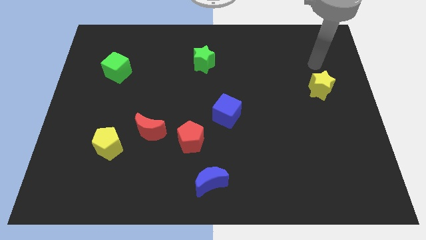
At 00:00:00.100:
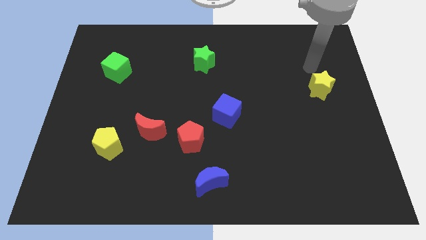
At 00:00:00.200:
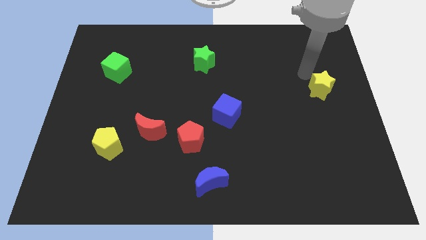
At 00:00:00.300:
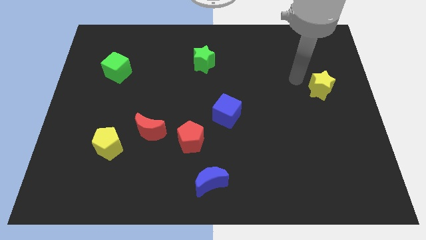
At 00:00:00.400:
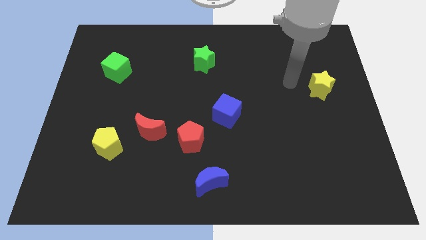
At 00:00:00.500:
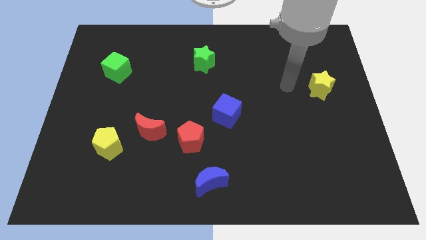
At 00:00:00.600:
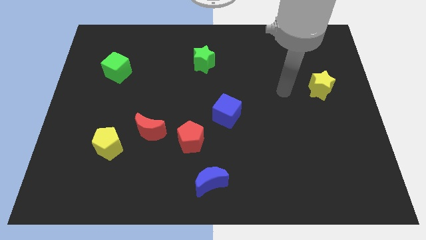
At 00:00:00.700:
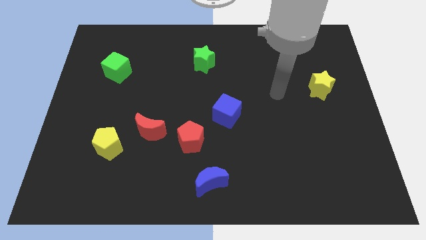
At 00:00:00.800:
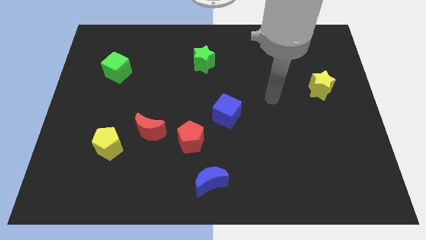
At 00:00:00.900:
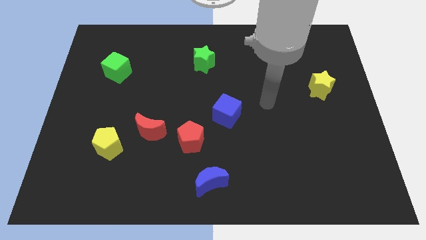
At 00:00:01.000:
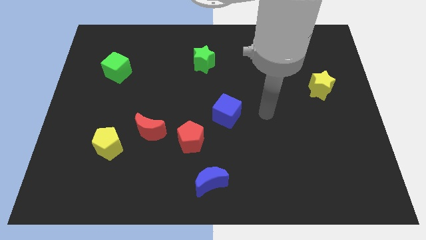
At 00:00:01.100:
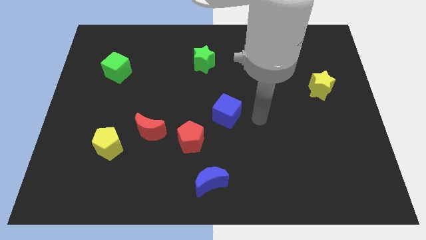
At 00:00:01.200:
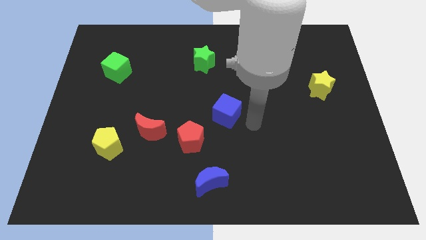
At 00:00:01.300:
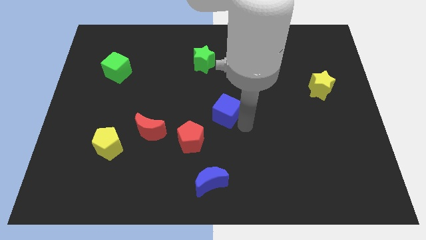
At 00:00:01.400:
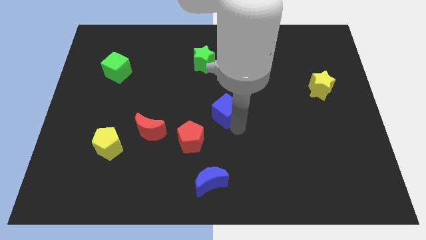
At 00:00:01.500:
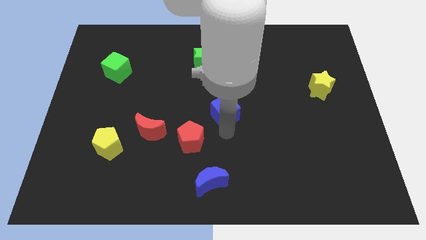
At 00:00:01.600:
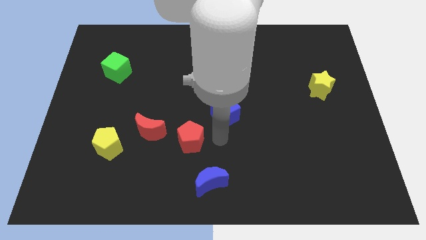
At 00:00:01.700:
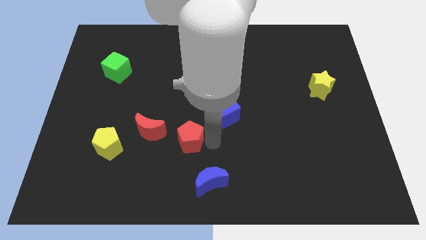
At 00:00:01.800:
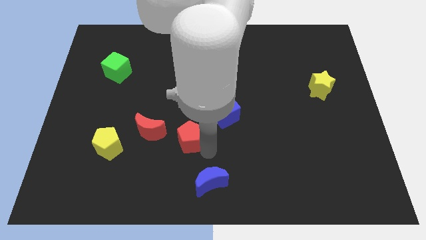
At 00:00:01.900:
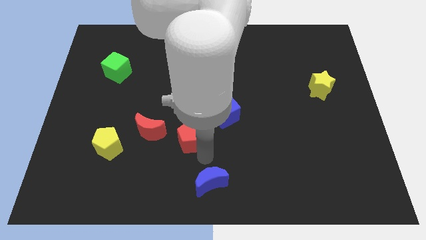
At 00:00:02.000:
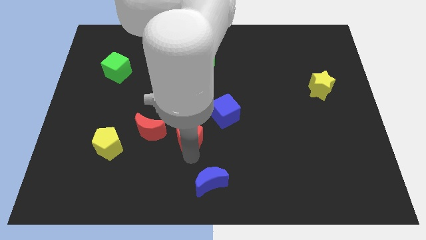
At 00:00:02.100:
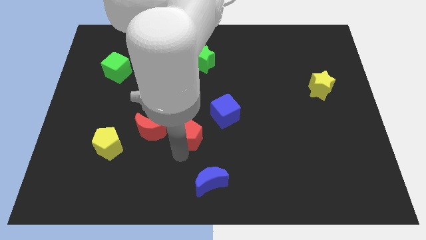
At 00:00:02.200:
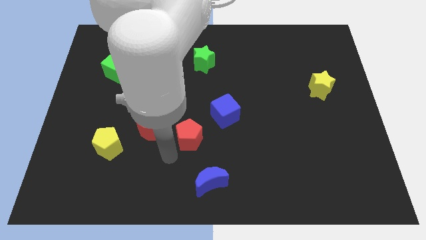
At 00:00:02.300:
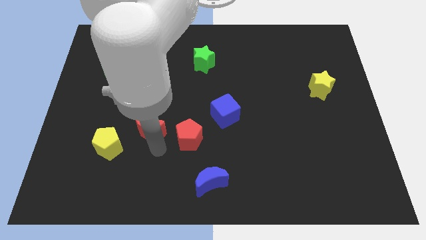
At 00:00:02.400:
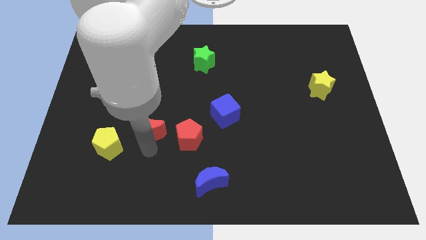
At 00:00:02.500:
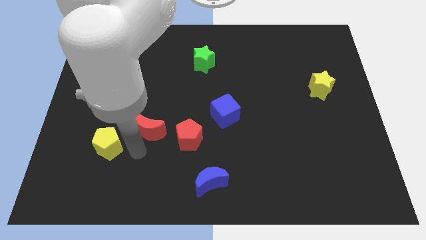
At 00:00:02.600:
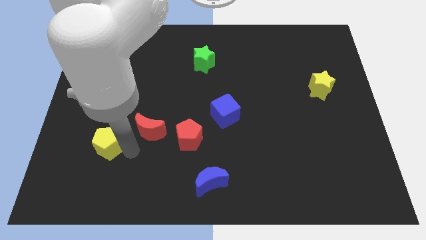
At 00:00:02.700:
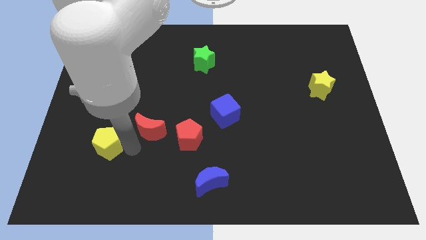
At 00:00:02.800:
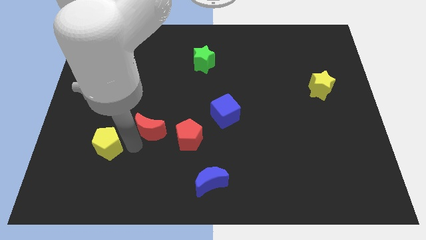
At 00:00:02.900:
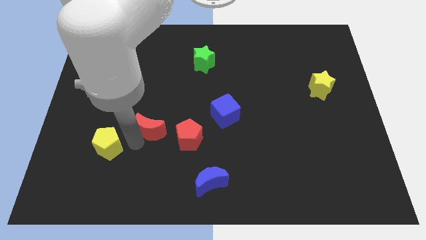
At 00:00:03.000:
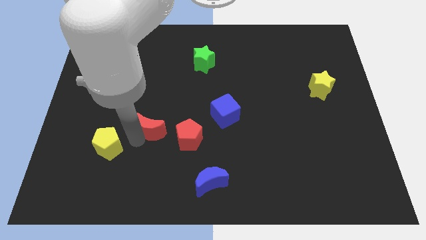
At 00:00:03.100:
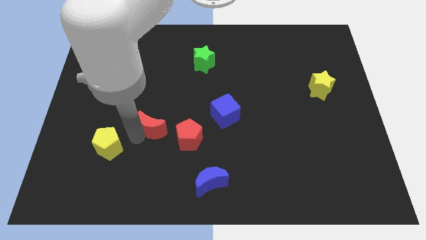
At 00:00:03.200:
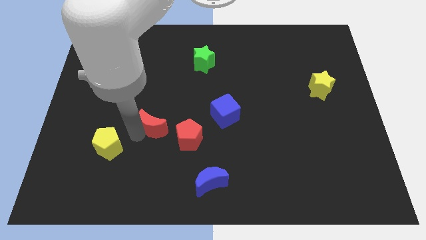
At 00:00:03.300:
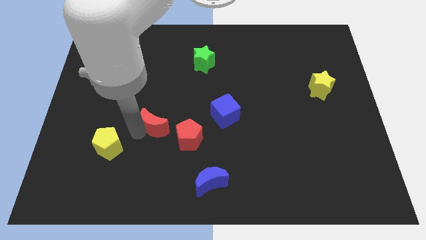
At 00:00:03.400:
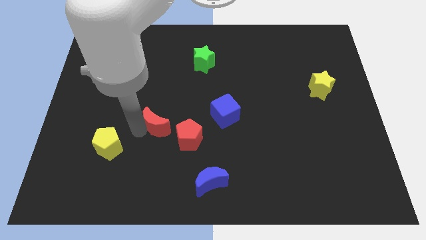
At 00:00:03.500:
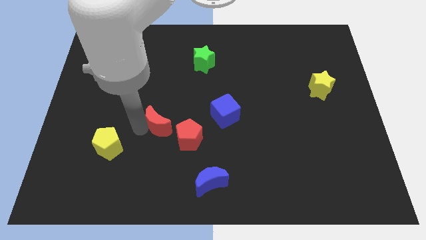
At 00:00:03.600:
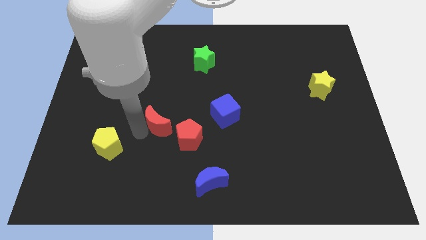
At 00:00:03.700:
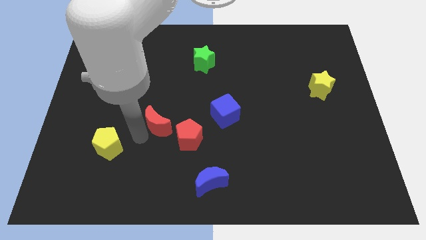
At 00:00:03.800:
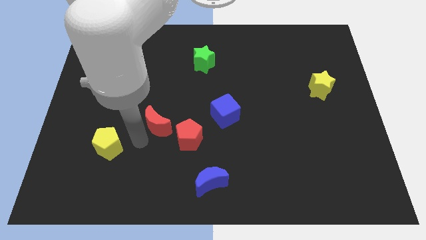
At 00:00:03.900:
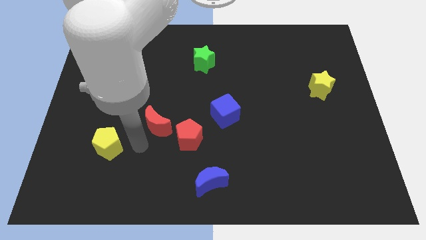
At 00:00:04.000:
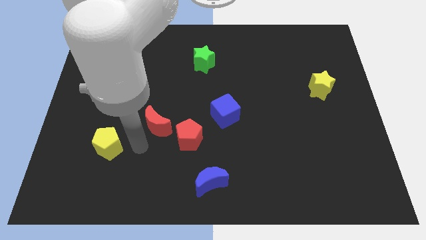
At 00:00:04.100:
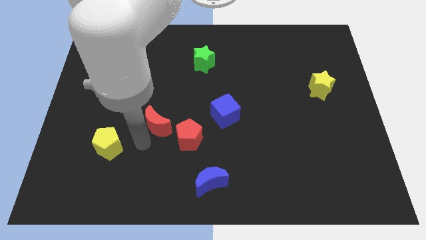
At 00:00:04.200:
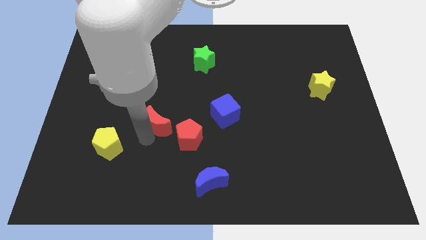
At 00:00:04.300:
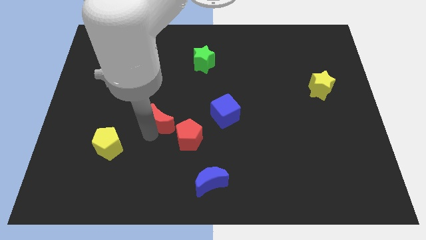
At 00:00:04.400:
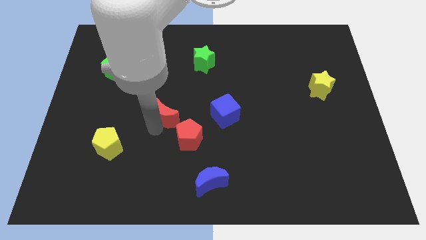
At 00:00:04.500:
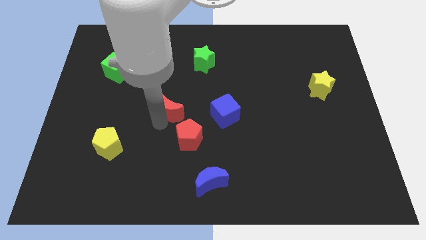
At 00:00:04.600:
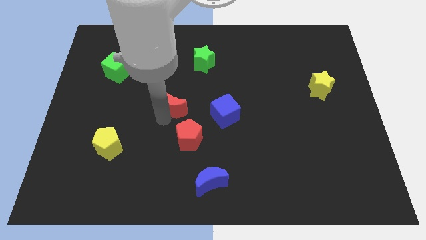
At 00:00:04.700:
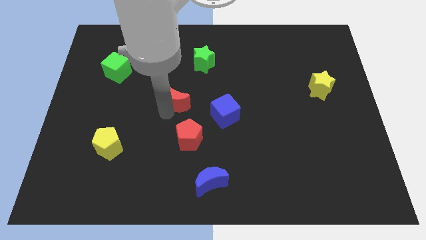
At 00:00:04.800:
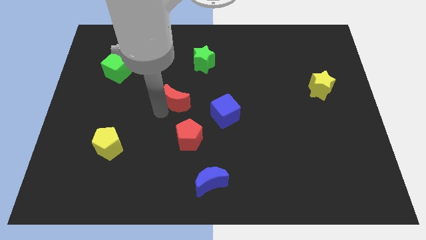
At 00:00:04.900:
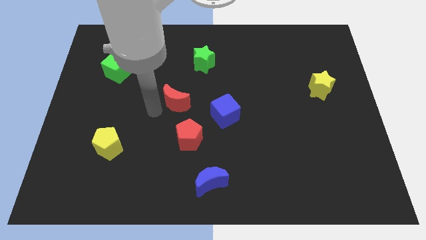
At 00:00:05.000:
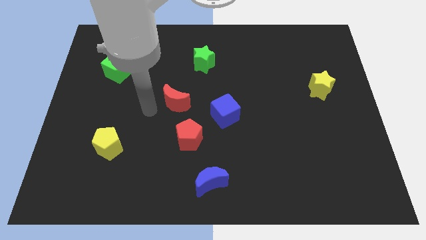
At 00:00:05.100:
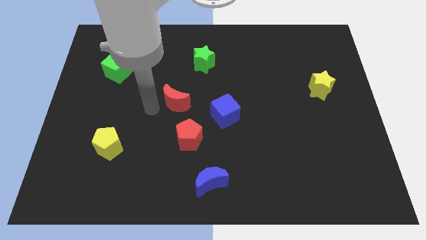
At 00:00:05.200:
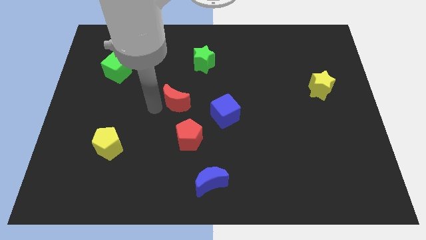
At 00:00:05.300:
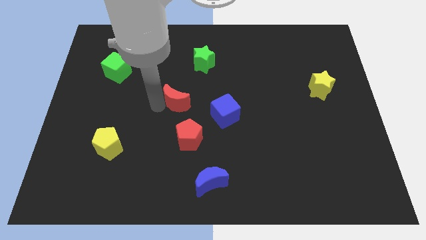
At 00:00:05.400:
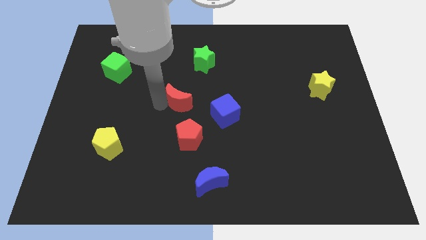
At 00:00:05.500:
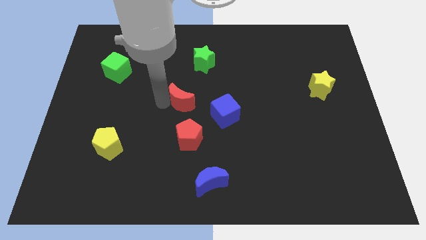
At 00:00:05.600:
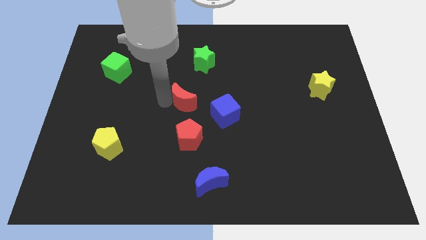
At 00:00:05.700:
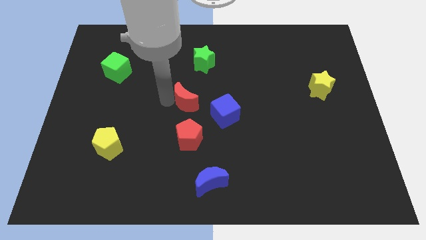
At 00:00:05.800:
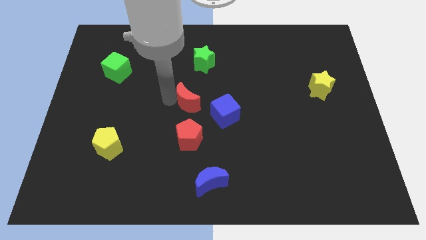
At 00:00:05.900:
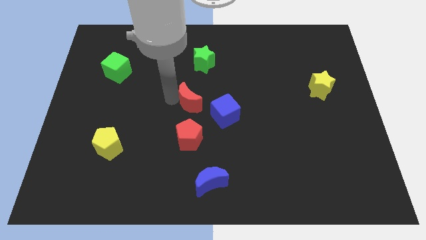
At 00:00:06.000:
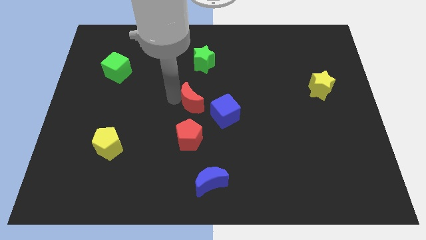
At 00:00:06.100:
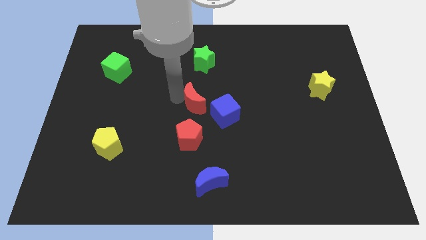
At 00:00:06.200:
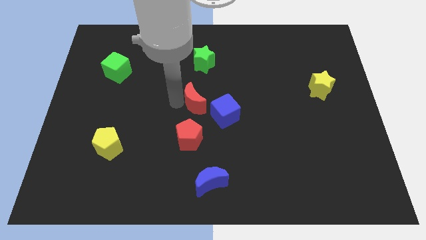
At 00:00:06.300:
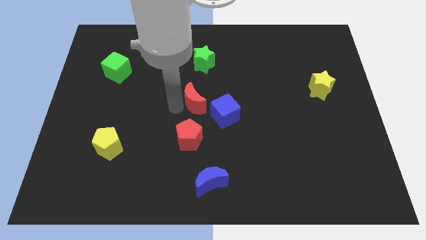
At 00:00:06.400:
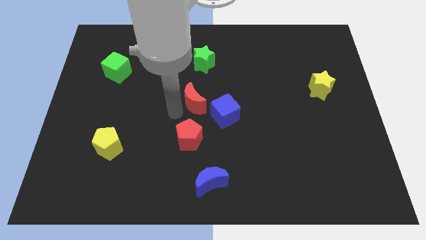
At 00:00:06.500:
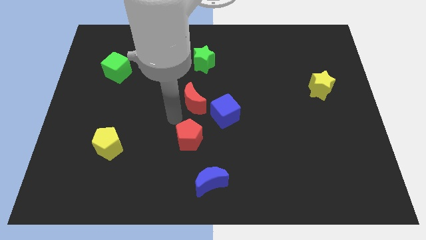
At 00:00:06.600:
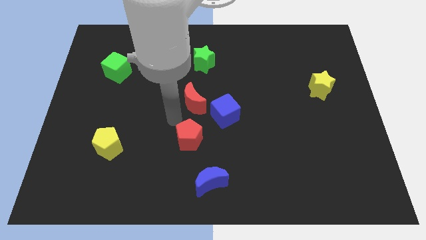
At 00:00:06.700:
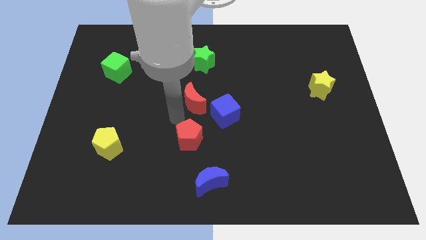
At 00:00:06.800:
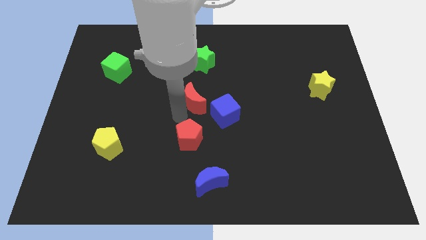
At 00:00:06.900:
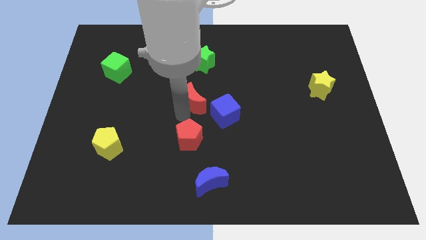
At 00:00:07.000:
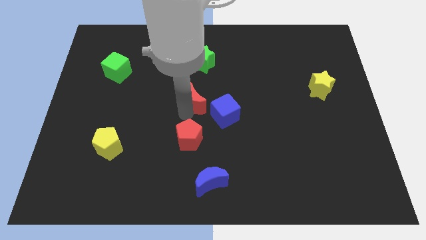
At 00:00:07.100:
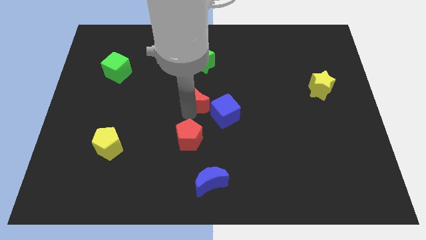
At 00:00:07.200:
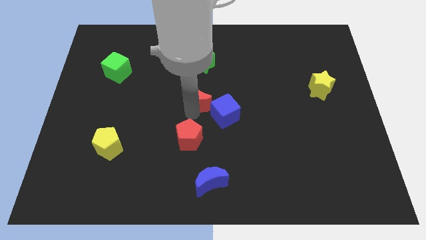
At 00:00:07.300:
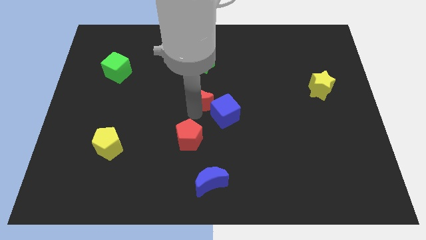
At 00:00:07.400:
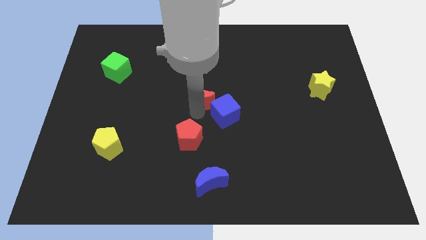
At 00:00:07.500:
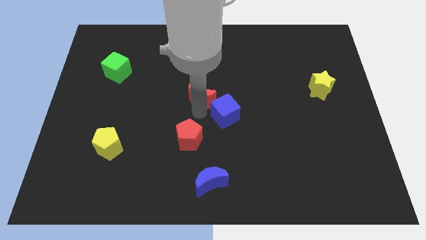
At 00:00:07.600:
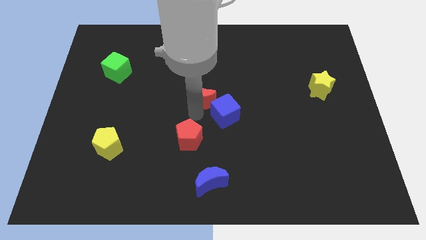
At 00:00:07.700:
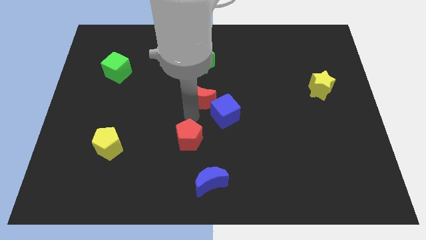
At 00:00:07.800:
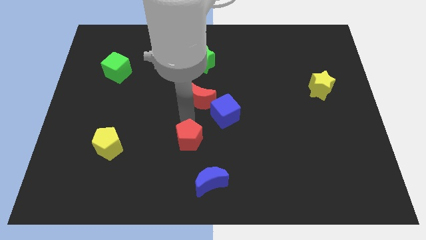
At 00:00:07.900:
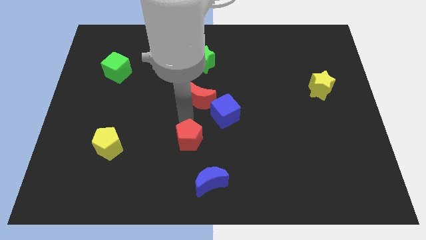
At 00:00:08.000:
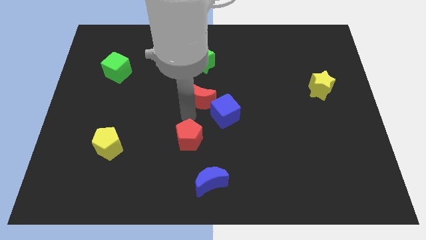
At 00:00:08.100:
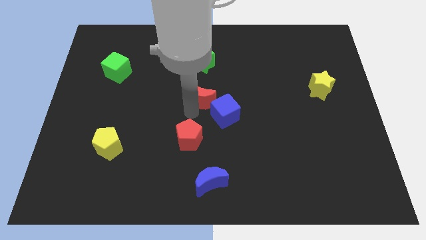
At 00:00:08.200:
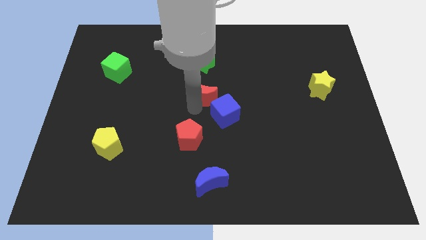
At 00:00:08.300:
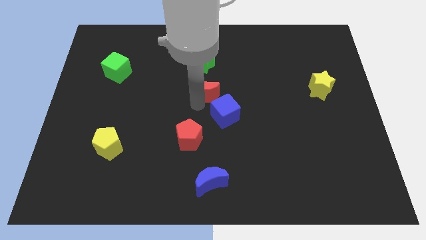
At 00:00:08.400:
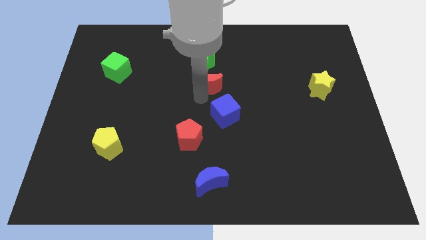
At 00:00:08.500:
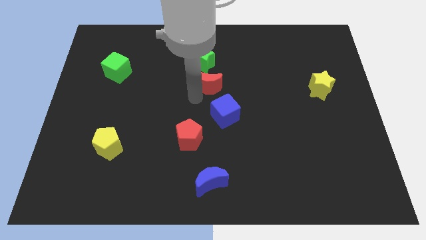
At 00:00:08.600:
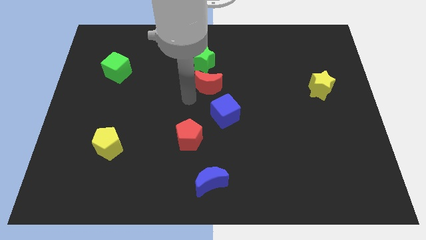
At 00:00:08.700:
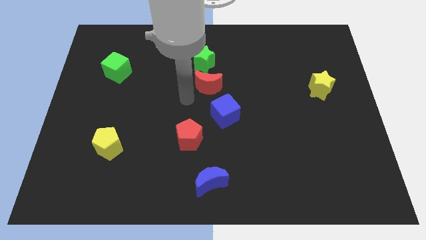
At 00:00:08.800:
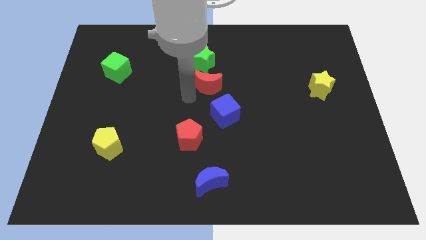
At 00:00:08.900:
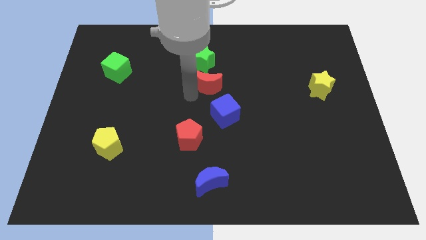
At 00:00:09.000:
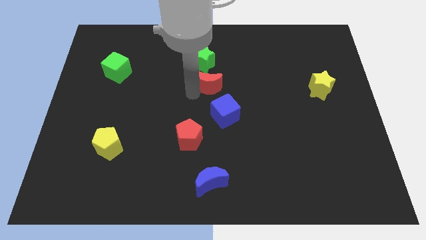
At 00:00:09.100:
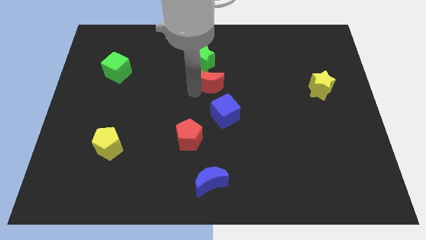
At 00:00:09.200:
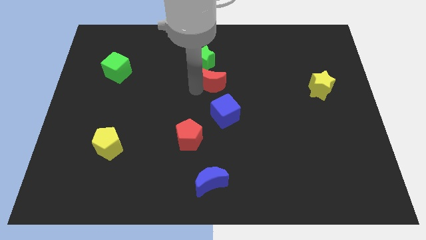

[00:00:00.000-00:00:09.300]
slide the red moon diagonally up and right
